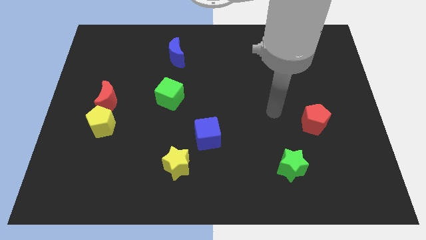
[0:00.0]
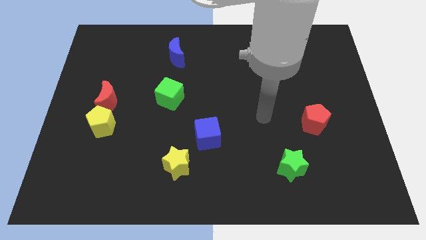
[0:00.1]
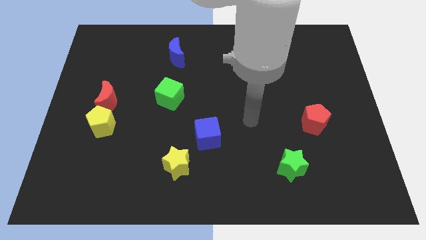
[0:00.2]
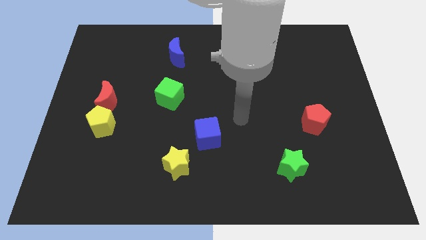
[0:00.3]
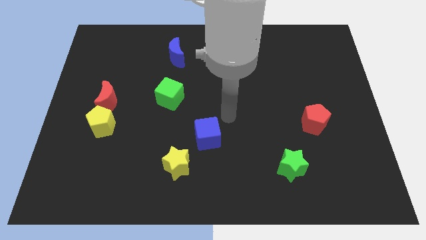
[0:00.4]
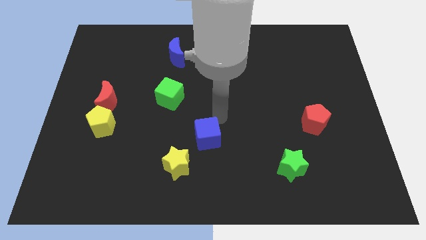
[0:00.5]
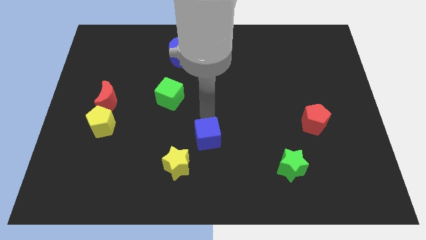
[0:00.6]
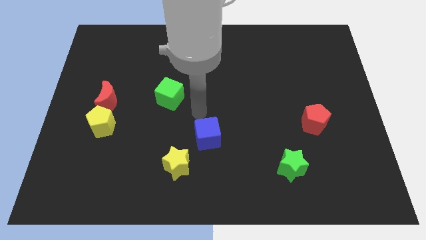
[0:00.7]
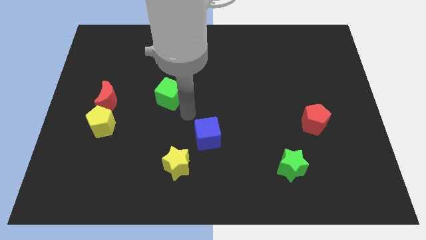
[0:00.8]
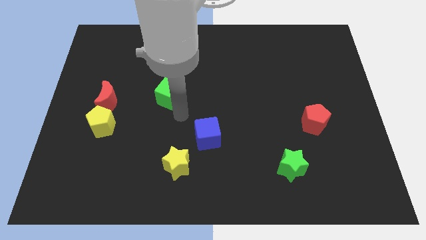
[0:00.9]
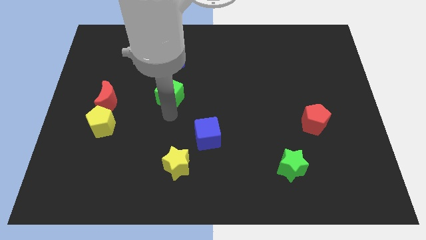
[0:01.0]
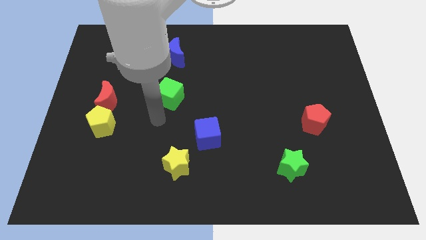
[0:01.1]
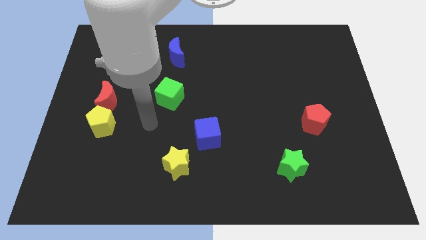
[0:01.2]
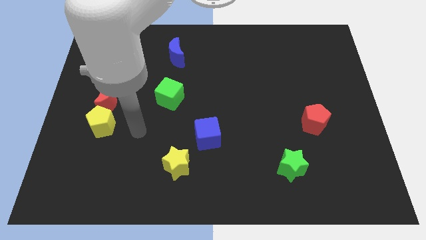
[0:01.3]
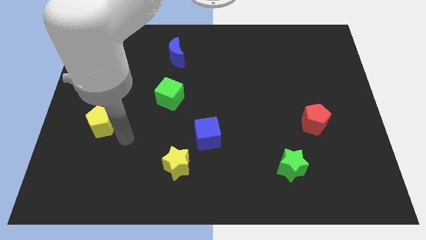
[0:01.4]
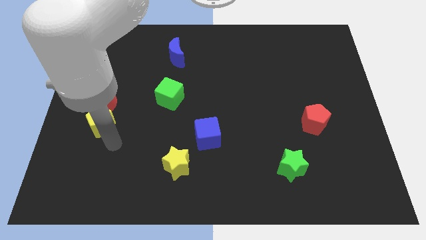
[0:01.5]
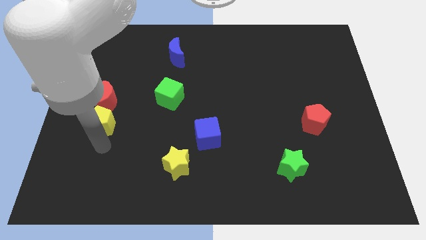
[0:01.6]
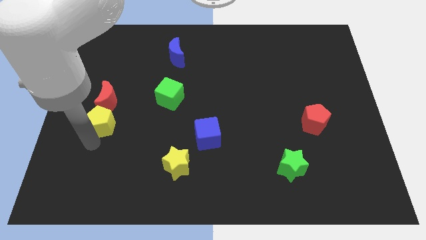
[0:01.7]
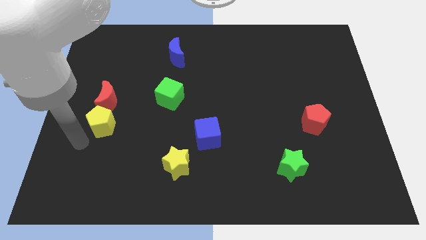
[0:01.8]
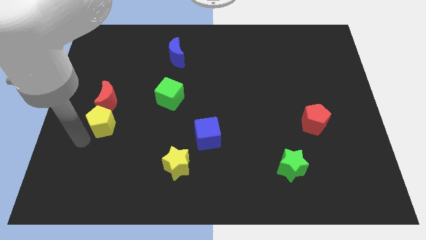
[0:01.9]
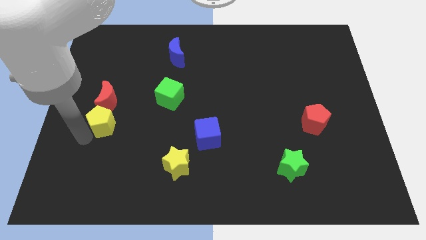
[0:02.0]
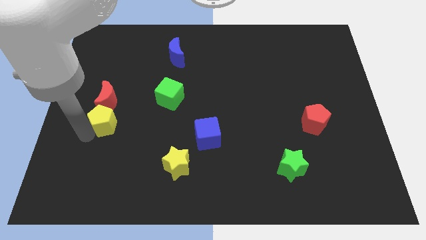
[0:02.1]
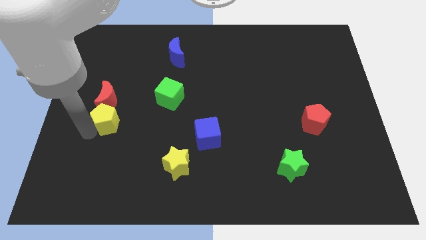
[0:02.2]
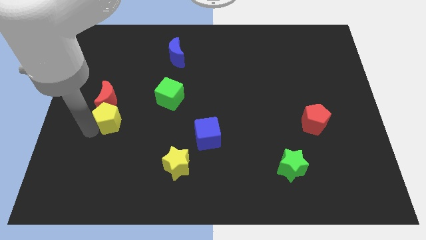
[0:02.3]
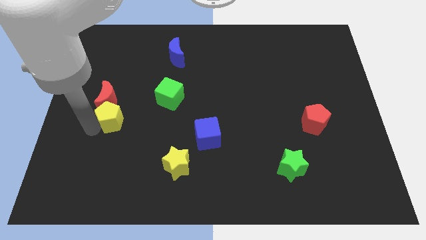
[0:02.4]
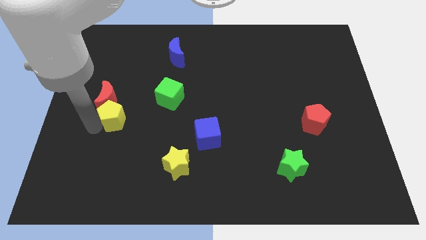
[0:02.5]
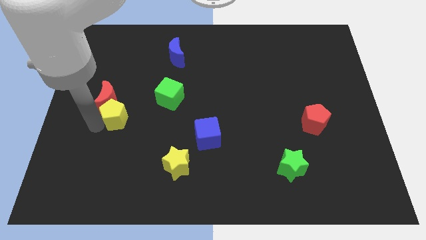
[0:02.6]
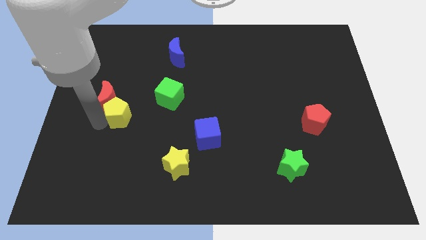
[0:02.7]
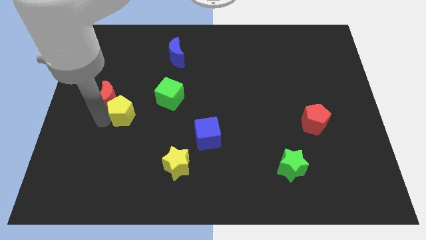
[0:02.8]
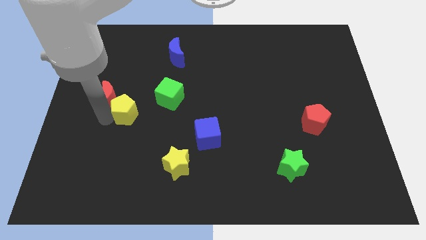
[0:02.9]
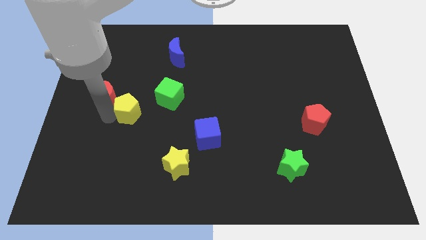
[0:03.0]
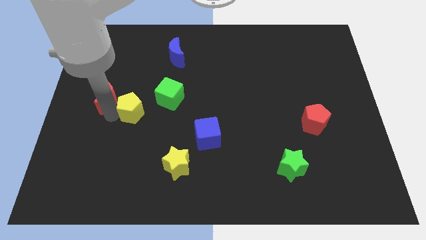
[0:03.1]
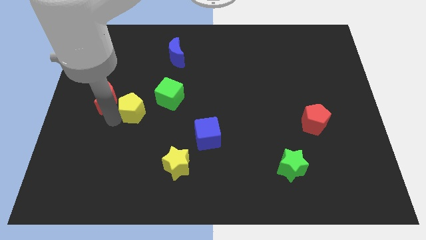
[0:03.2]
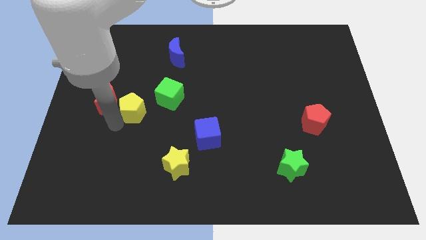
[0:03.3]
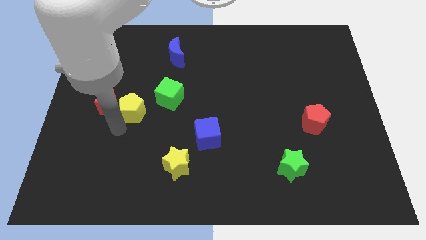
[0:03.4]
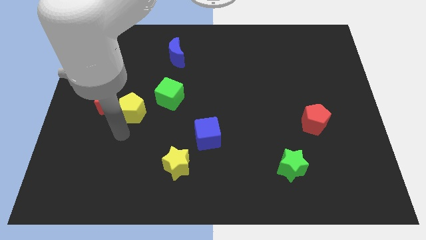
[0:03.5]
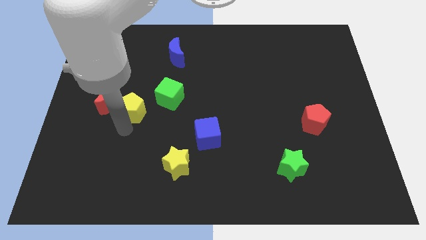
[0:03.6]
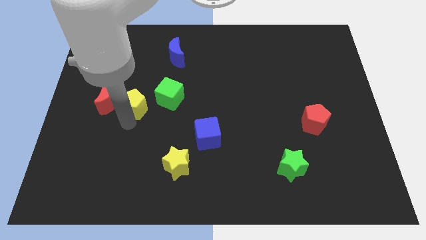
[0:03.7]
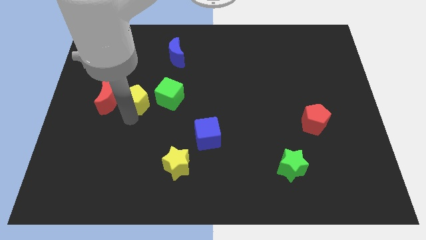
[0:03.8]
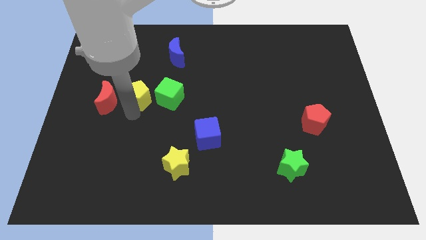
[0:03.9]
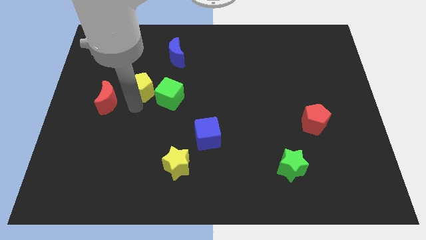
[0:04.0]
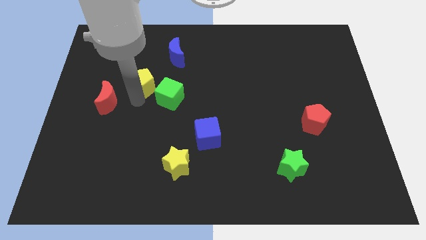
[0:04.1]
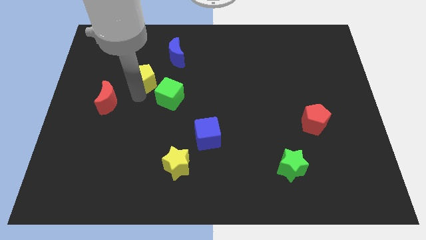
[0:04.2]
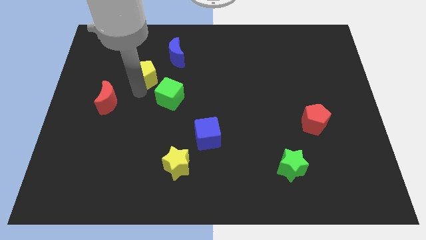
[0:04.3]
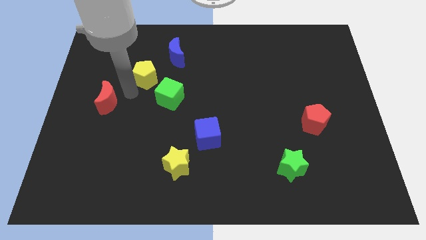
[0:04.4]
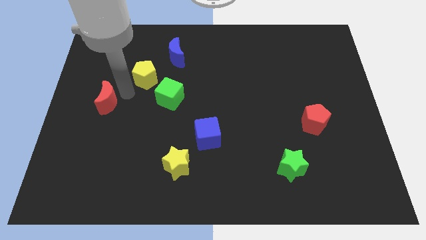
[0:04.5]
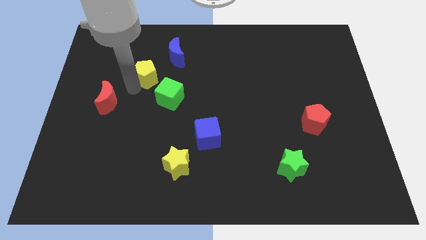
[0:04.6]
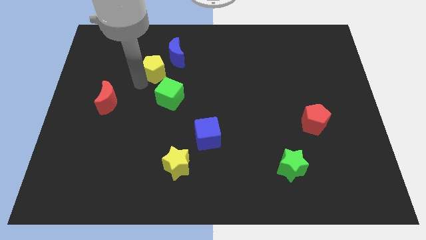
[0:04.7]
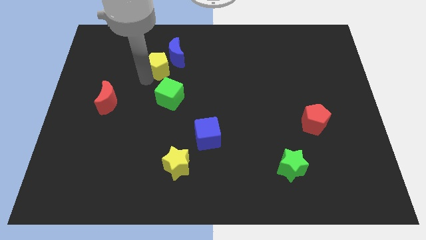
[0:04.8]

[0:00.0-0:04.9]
put the yellow pentagon to the blue moon

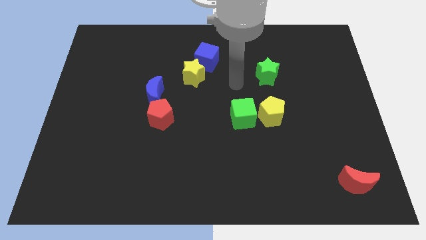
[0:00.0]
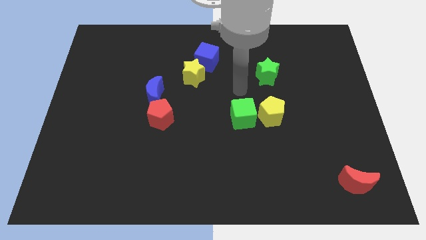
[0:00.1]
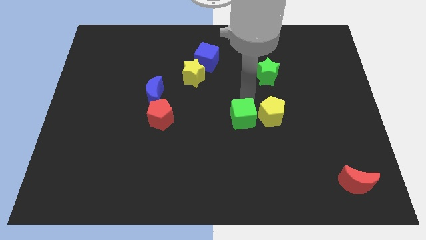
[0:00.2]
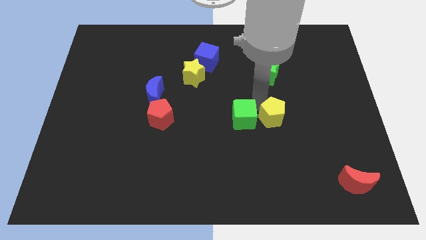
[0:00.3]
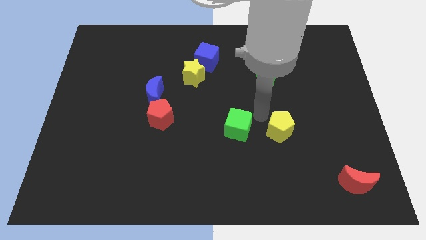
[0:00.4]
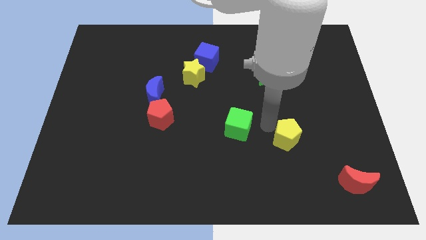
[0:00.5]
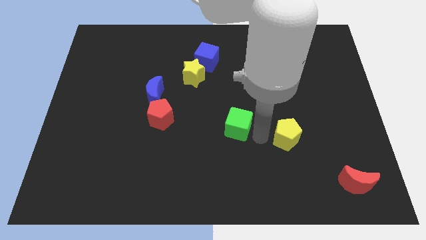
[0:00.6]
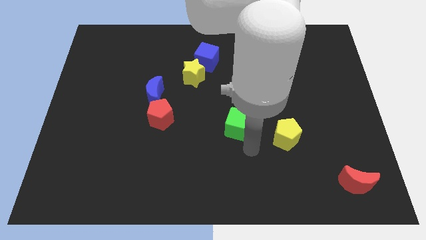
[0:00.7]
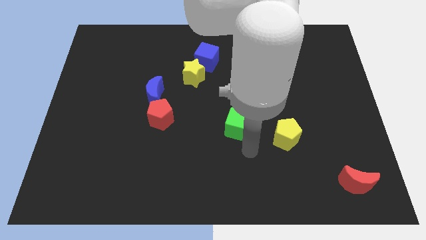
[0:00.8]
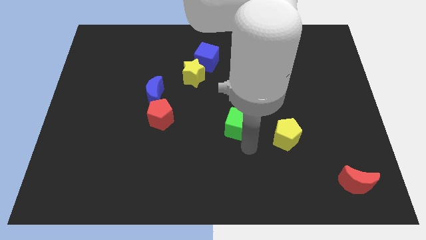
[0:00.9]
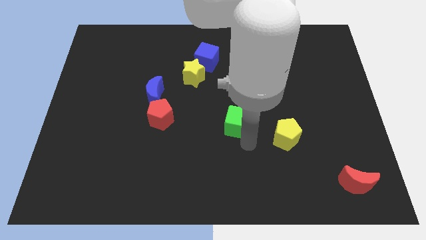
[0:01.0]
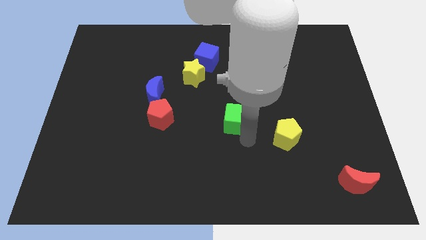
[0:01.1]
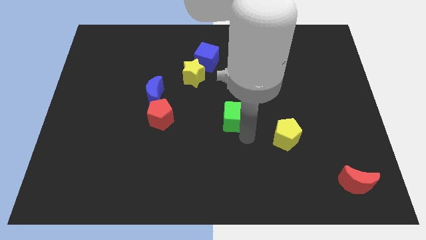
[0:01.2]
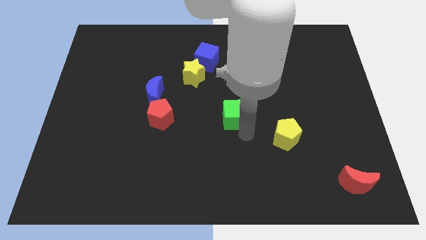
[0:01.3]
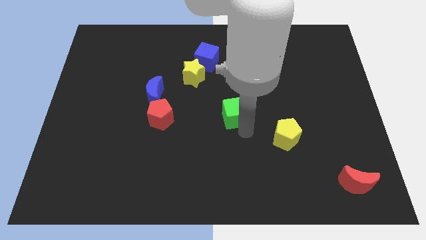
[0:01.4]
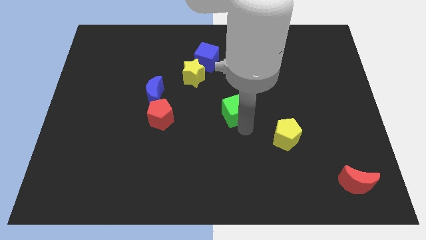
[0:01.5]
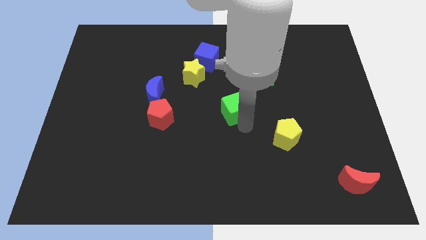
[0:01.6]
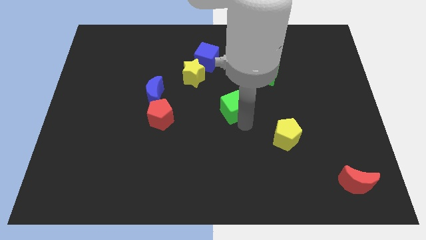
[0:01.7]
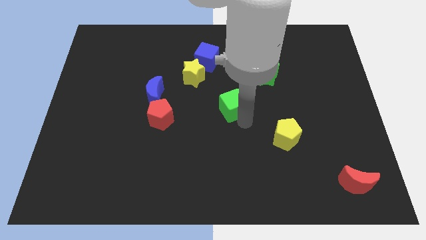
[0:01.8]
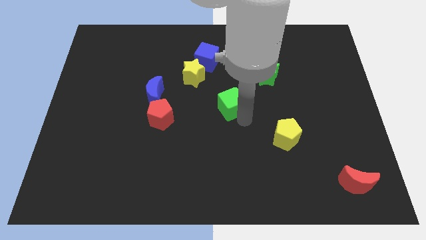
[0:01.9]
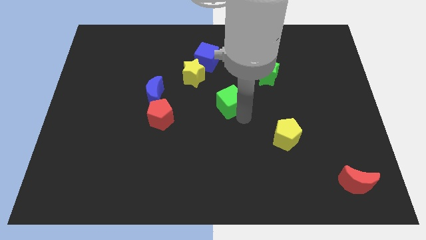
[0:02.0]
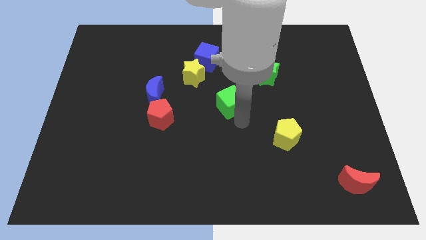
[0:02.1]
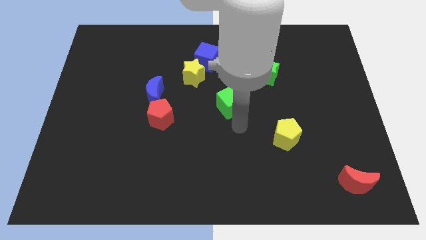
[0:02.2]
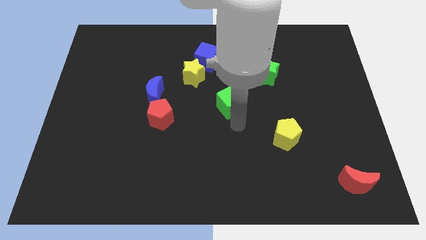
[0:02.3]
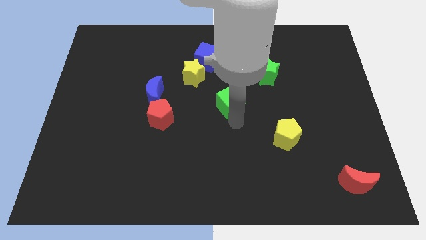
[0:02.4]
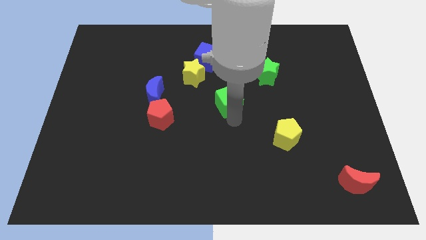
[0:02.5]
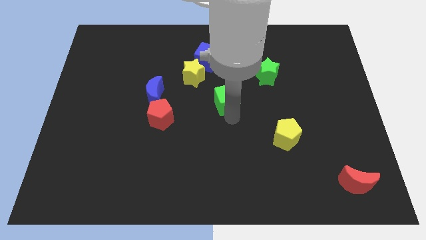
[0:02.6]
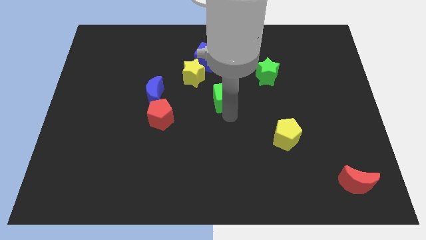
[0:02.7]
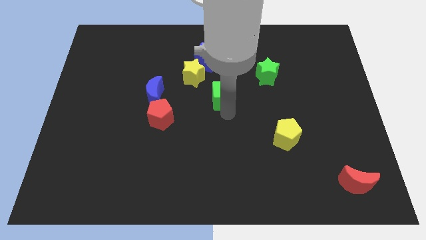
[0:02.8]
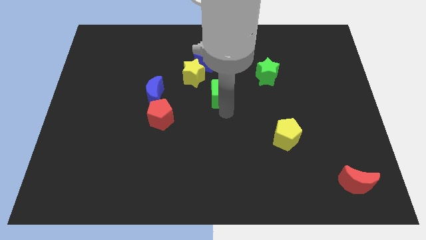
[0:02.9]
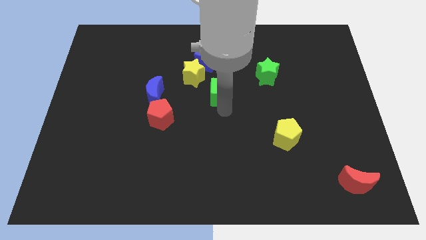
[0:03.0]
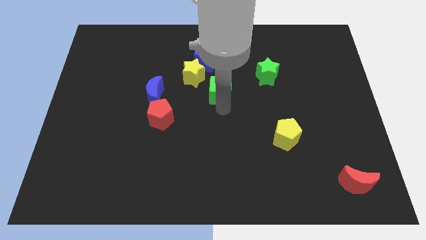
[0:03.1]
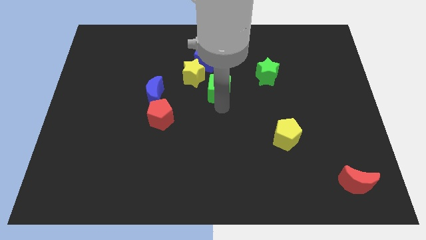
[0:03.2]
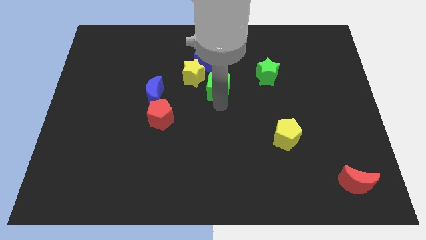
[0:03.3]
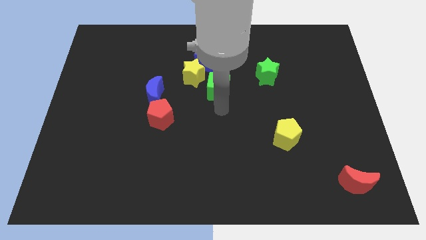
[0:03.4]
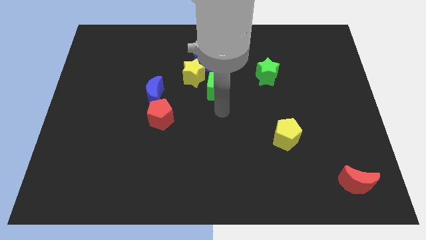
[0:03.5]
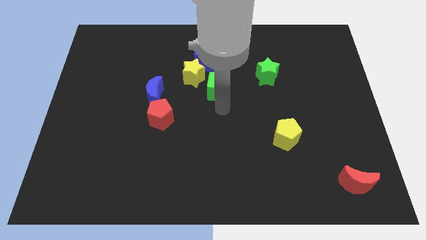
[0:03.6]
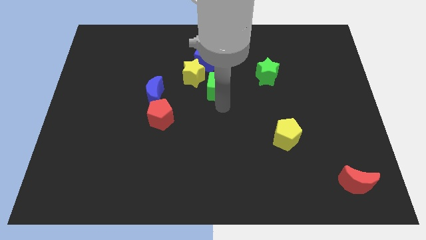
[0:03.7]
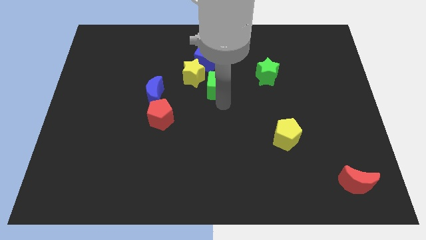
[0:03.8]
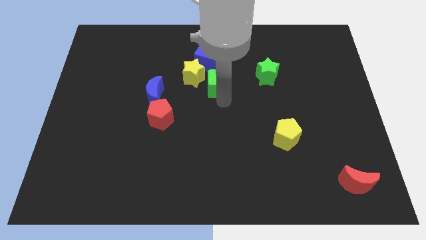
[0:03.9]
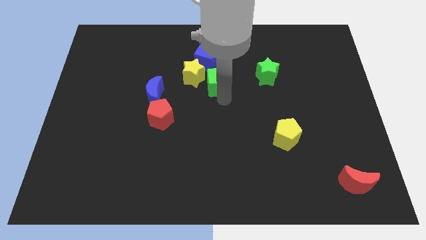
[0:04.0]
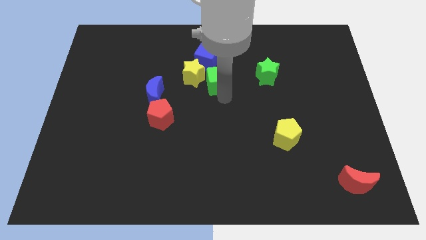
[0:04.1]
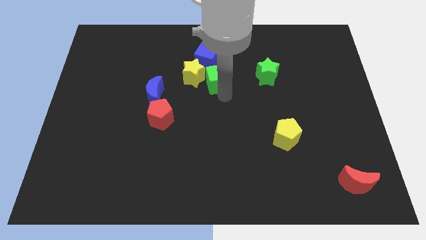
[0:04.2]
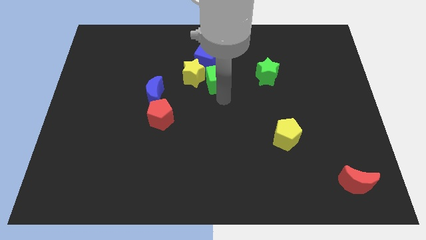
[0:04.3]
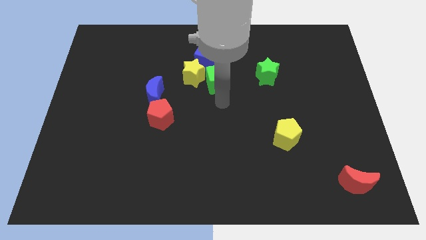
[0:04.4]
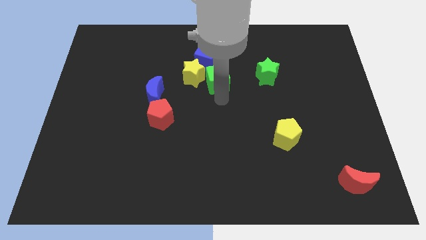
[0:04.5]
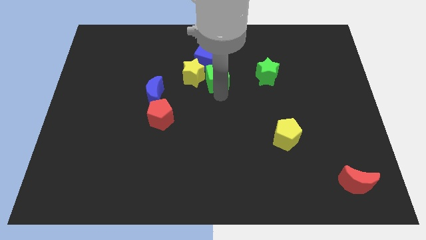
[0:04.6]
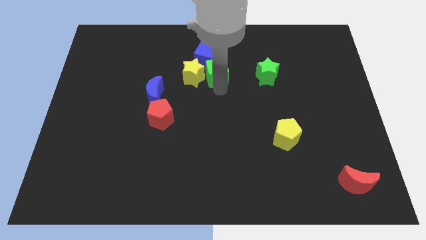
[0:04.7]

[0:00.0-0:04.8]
move the green cube close to the blue cube
